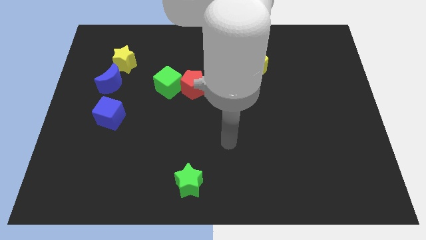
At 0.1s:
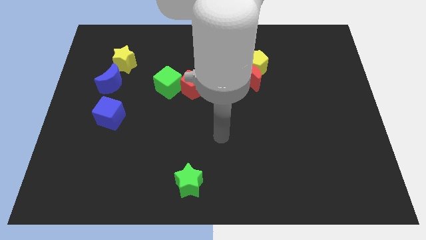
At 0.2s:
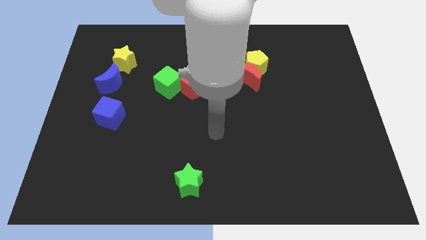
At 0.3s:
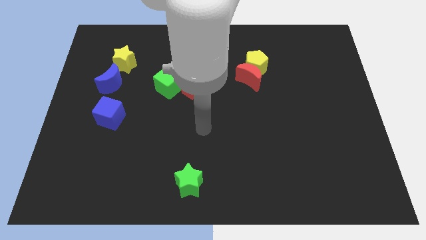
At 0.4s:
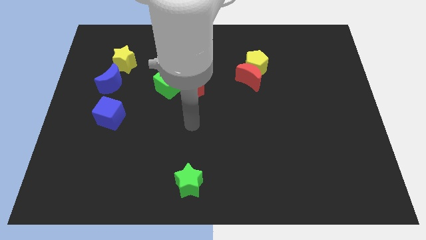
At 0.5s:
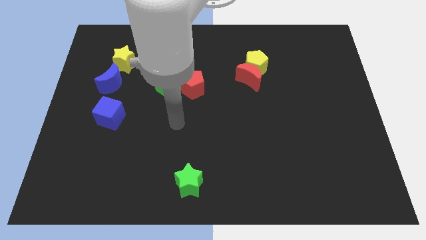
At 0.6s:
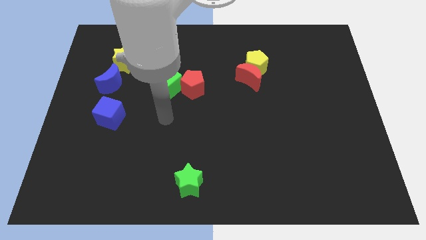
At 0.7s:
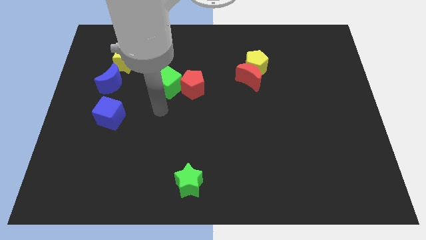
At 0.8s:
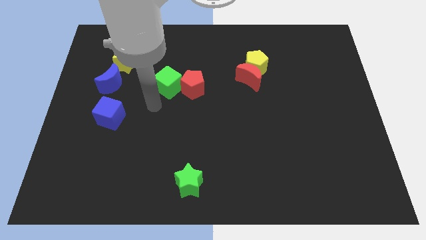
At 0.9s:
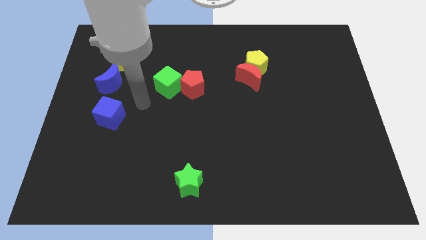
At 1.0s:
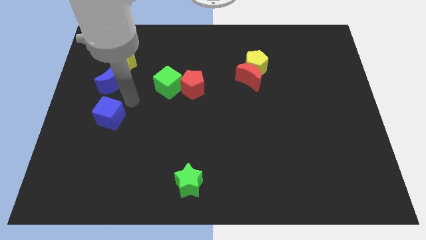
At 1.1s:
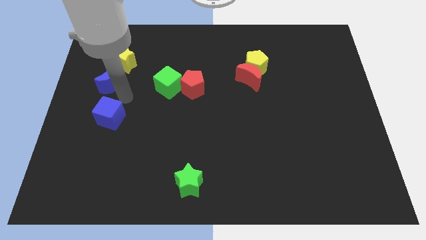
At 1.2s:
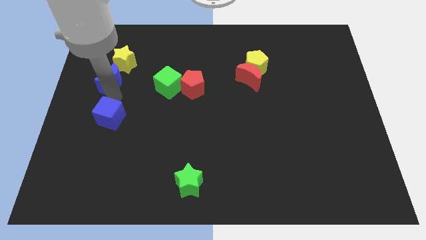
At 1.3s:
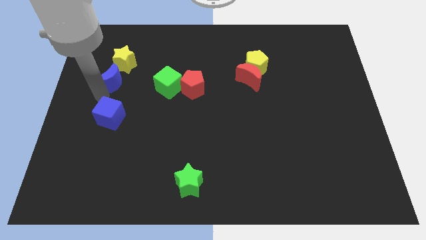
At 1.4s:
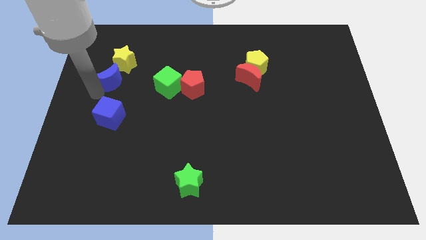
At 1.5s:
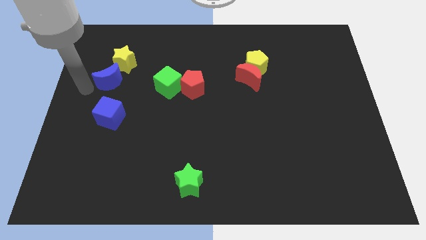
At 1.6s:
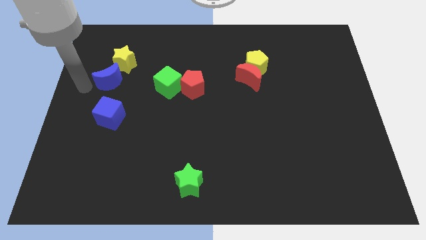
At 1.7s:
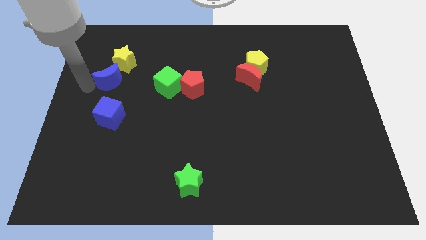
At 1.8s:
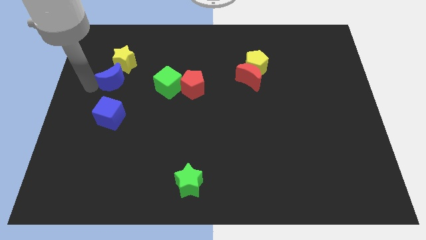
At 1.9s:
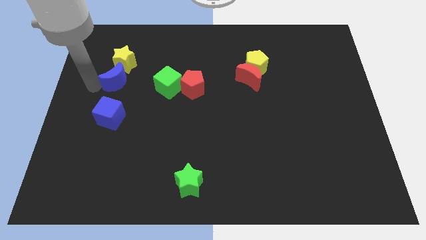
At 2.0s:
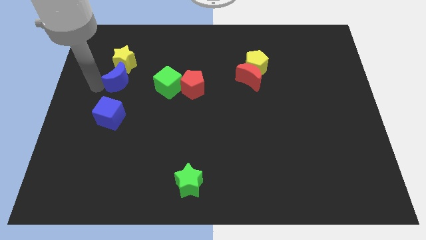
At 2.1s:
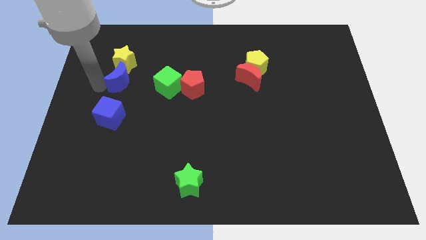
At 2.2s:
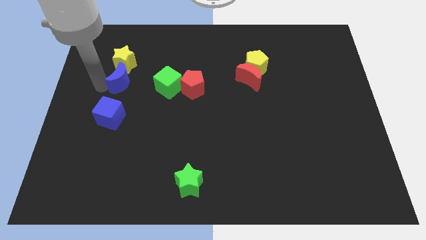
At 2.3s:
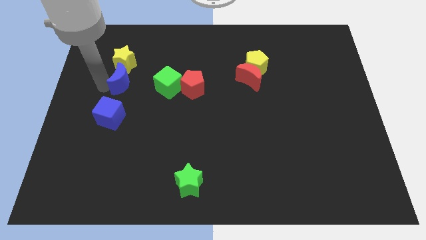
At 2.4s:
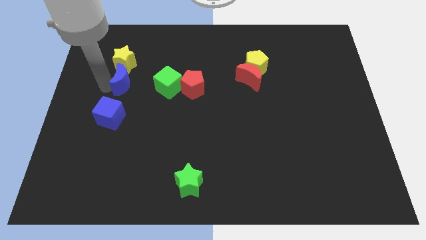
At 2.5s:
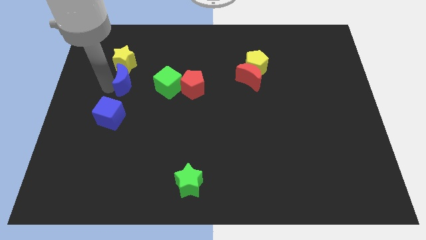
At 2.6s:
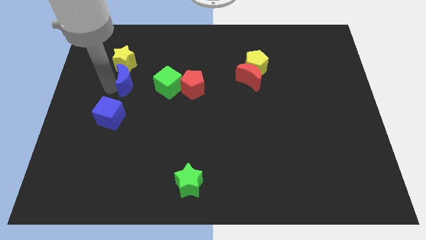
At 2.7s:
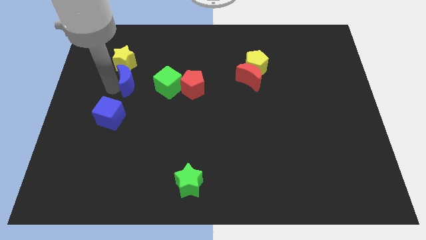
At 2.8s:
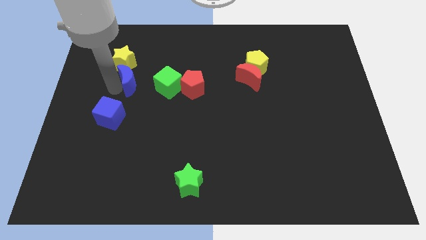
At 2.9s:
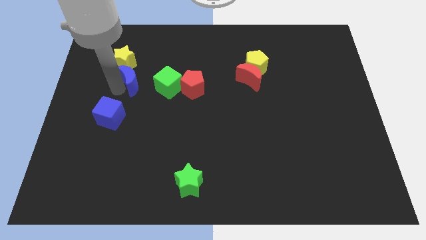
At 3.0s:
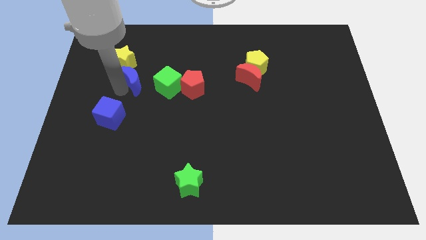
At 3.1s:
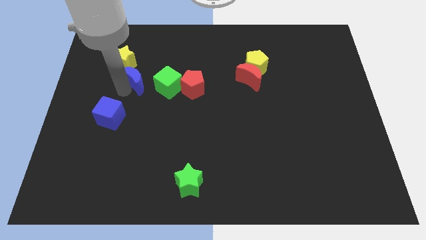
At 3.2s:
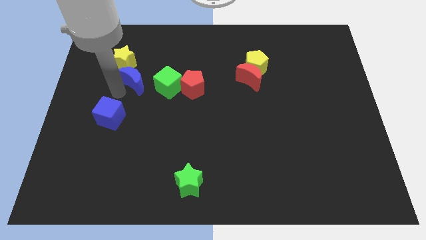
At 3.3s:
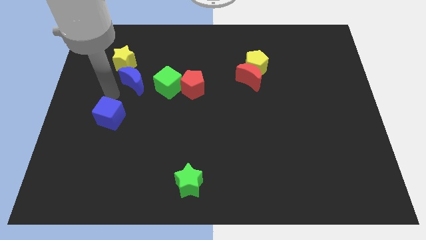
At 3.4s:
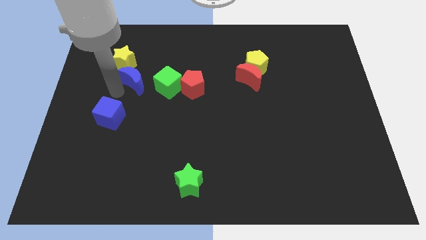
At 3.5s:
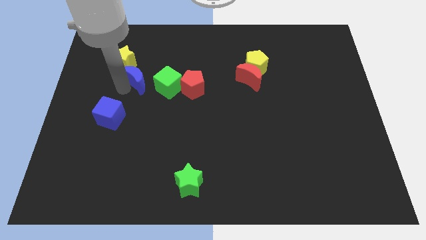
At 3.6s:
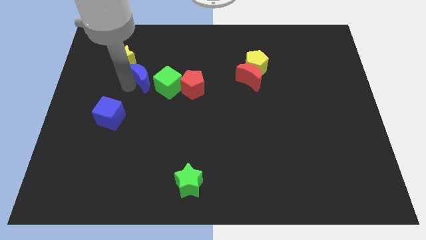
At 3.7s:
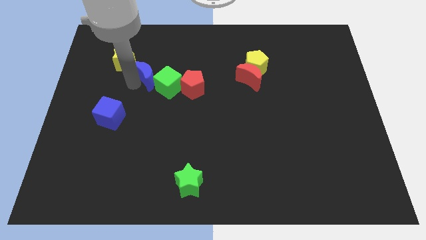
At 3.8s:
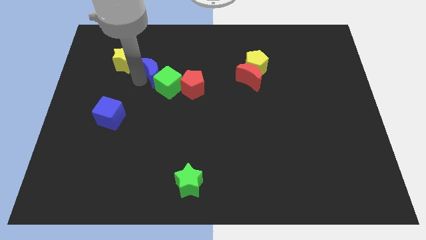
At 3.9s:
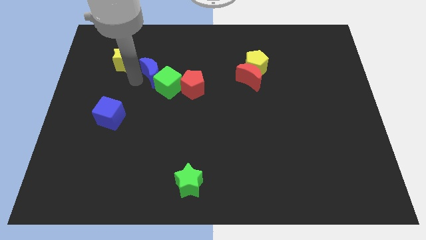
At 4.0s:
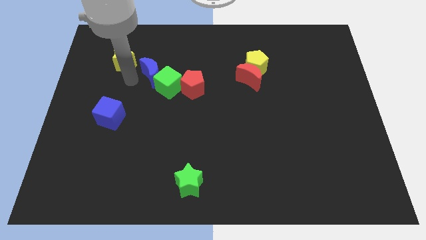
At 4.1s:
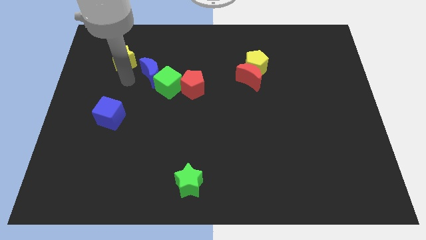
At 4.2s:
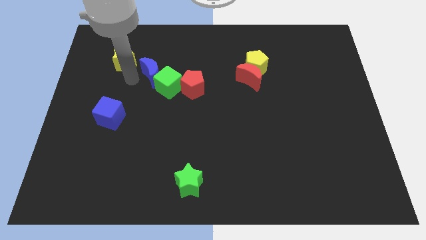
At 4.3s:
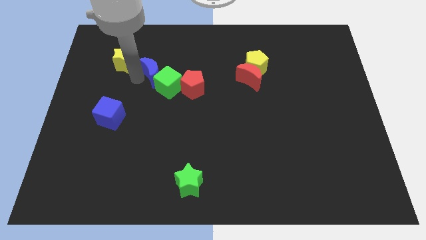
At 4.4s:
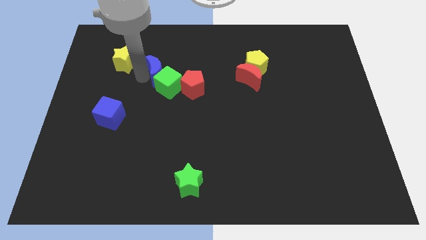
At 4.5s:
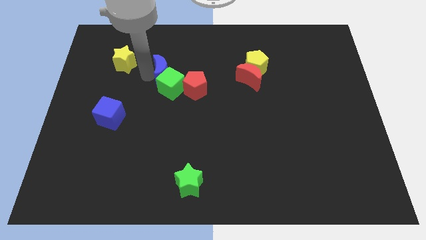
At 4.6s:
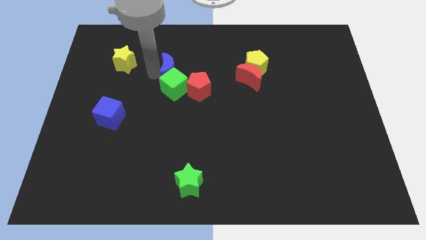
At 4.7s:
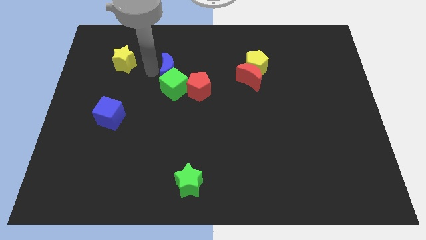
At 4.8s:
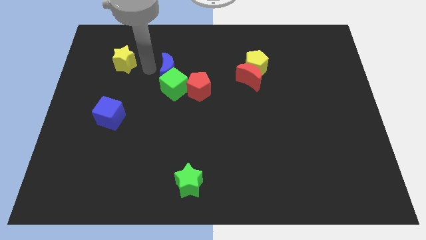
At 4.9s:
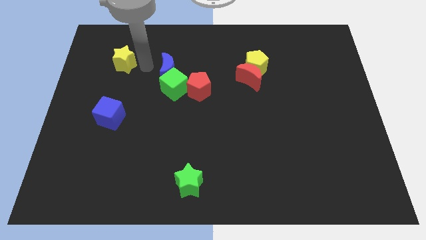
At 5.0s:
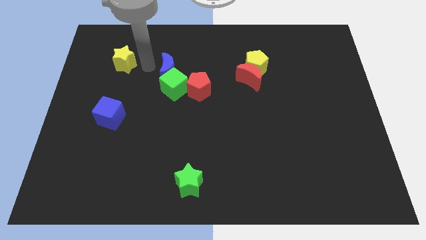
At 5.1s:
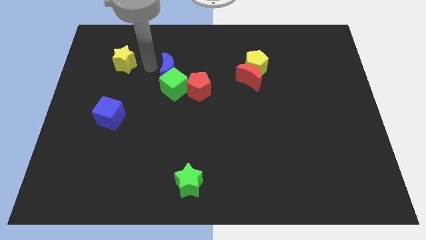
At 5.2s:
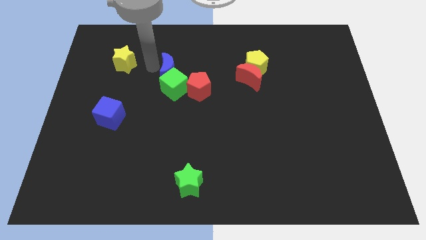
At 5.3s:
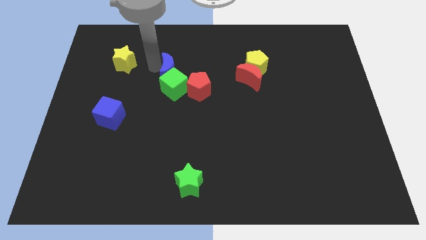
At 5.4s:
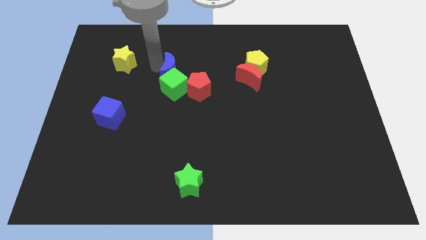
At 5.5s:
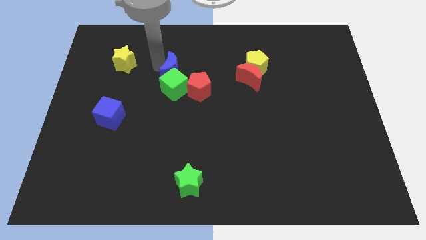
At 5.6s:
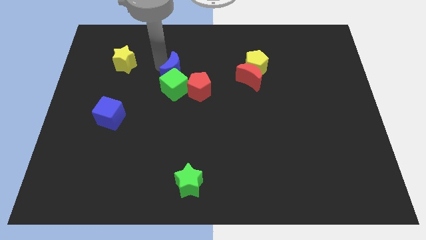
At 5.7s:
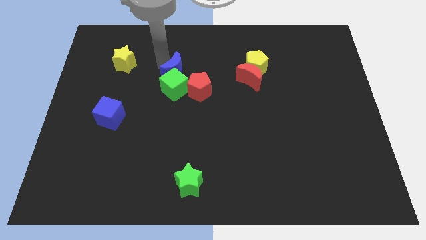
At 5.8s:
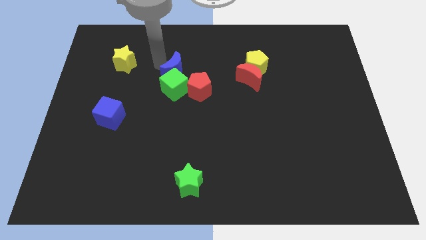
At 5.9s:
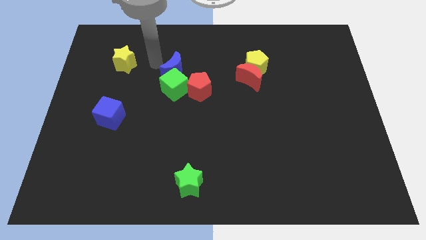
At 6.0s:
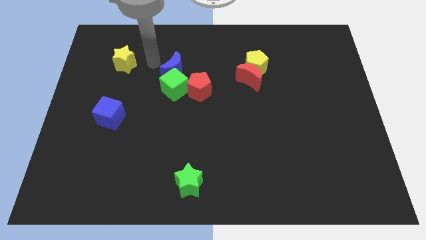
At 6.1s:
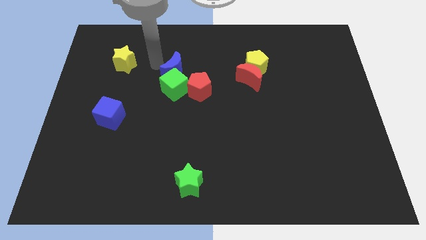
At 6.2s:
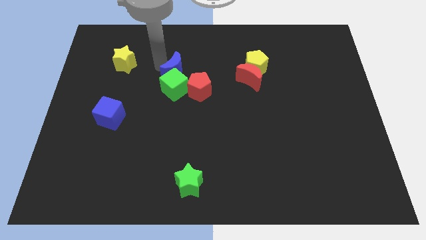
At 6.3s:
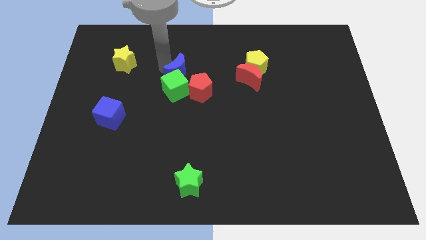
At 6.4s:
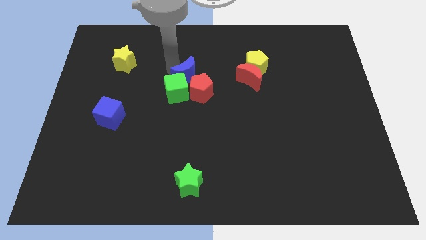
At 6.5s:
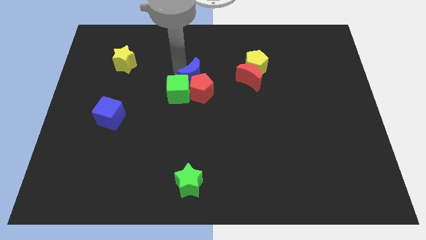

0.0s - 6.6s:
slide the blue moon next to the red pentagon
